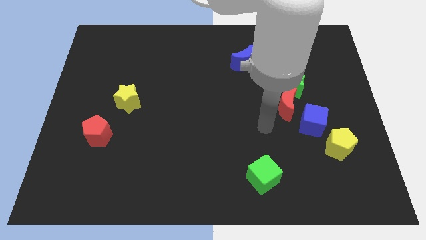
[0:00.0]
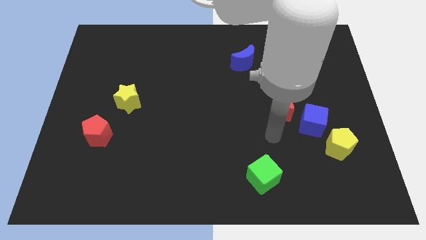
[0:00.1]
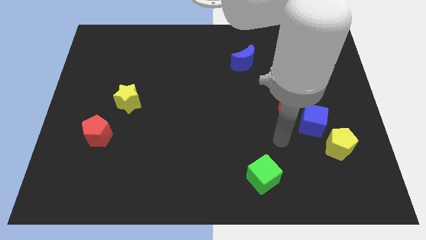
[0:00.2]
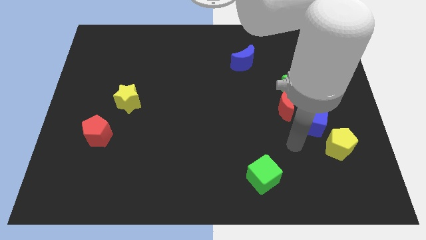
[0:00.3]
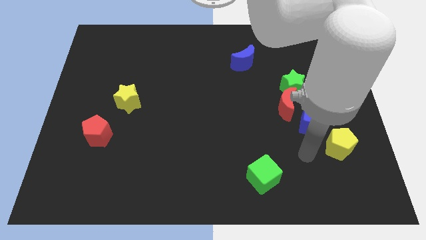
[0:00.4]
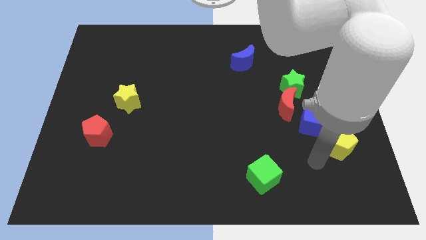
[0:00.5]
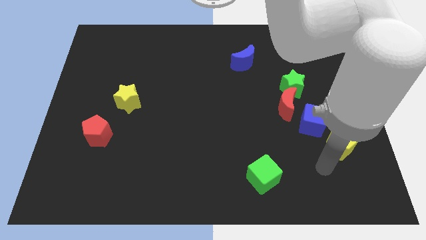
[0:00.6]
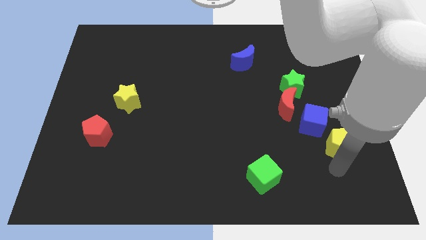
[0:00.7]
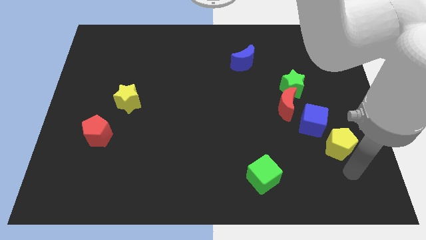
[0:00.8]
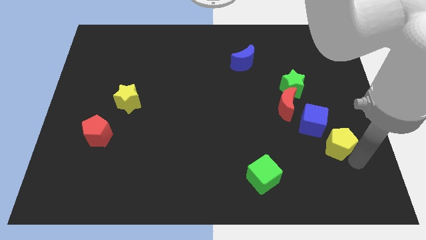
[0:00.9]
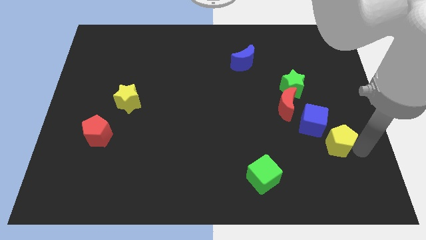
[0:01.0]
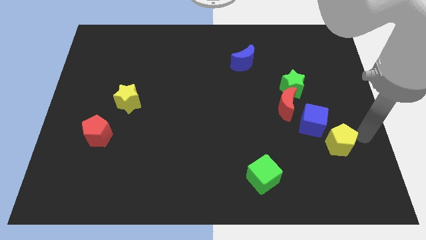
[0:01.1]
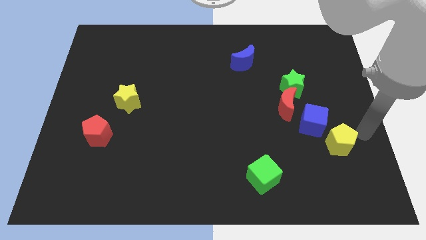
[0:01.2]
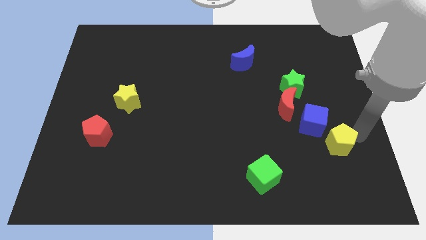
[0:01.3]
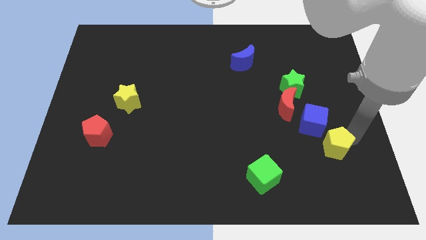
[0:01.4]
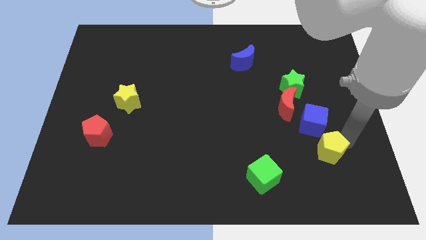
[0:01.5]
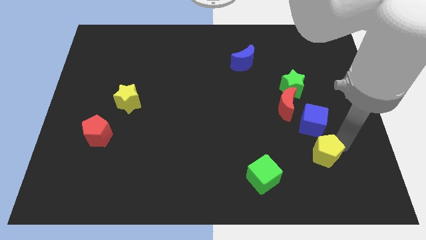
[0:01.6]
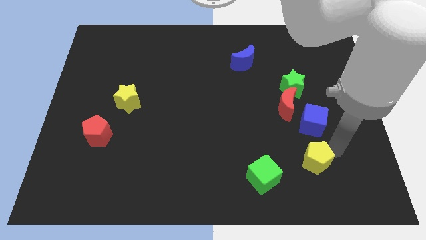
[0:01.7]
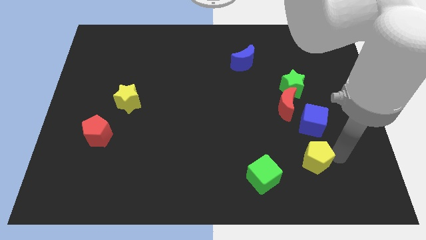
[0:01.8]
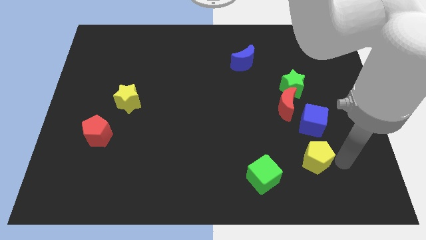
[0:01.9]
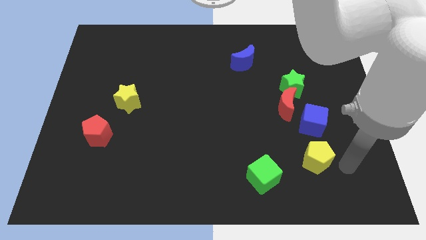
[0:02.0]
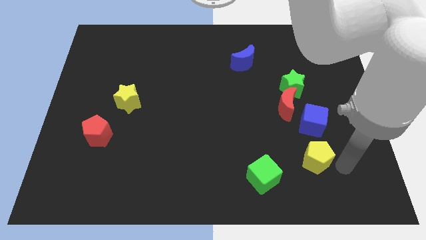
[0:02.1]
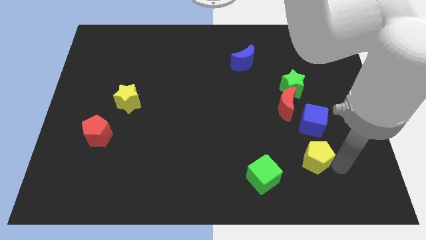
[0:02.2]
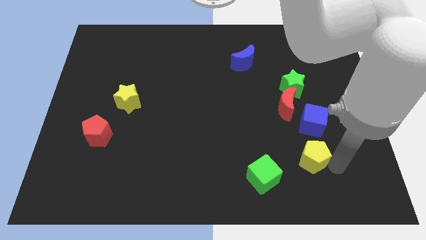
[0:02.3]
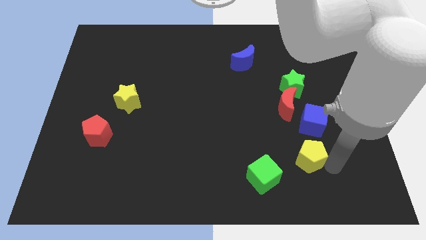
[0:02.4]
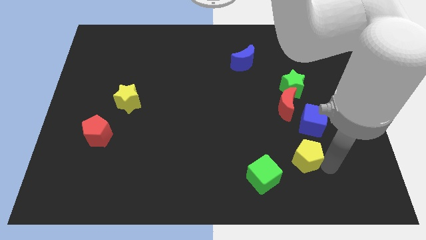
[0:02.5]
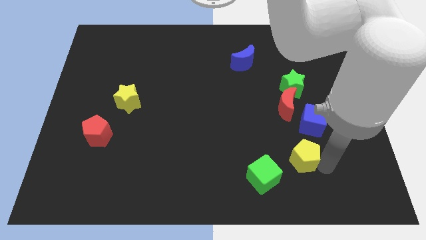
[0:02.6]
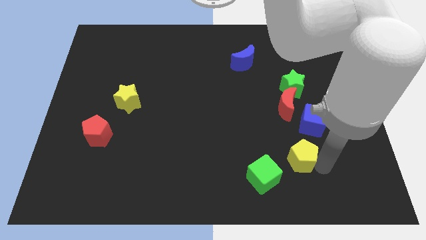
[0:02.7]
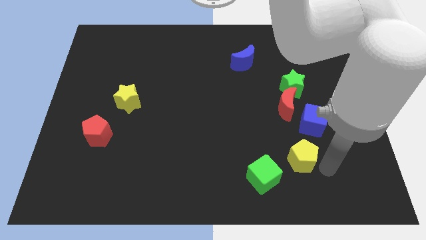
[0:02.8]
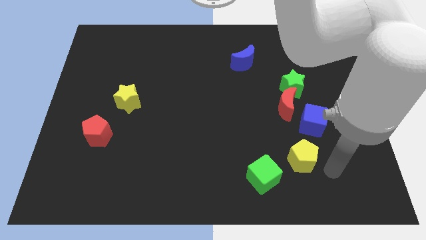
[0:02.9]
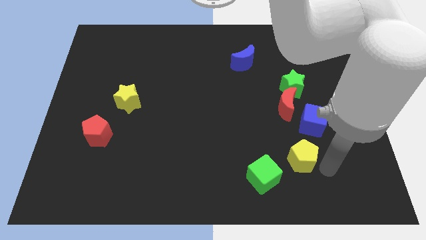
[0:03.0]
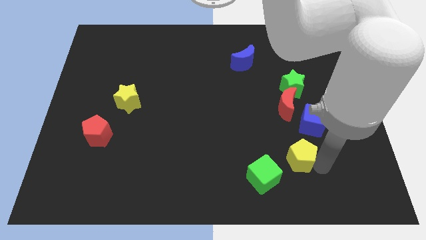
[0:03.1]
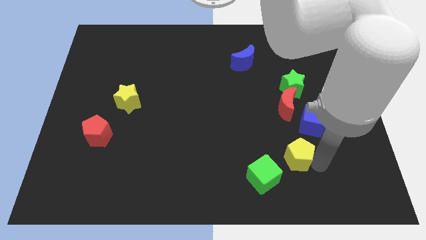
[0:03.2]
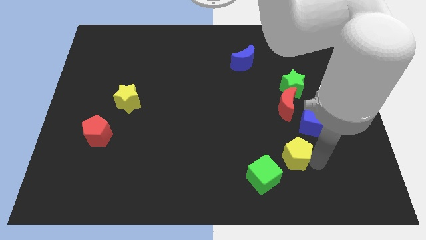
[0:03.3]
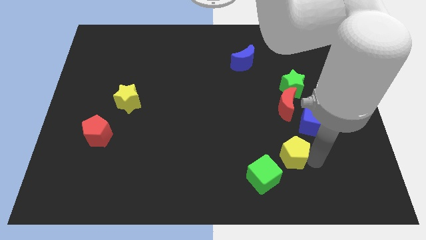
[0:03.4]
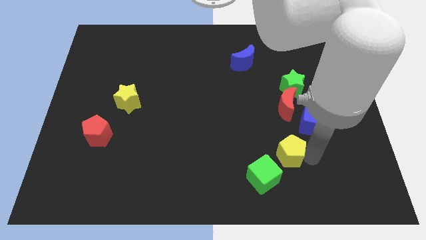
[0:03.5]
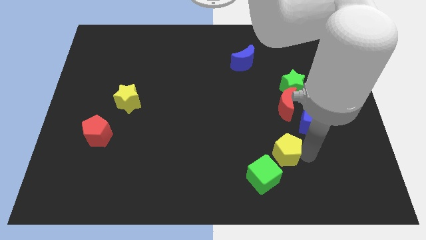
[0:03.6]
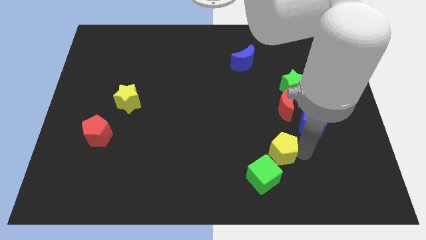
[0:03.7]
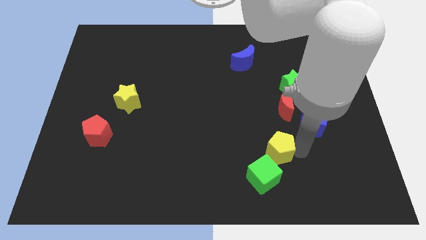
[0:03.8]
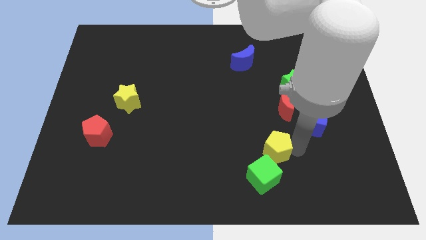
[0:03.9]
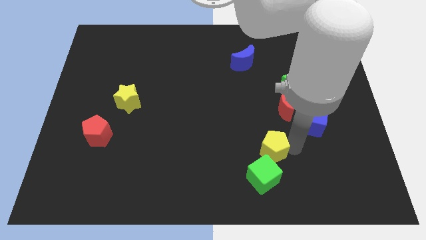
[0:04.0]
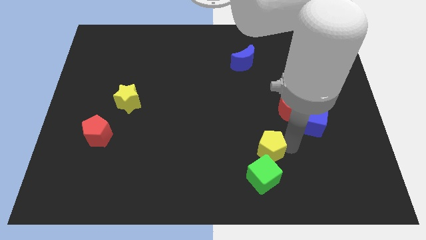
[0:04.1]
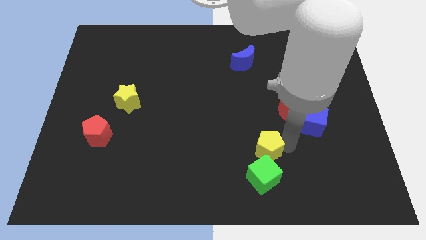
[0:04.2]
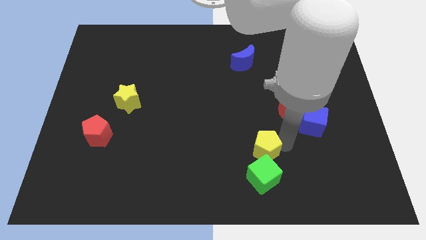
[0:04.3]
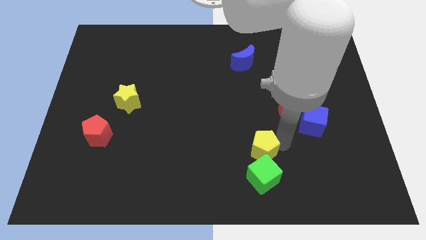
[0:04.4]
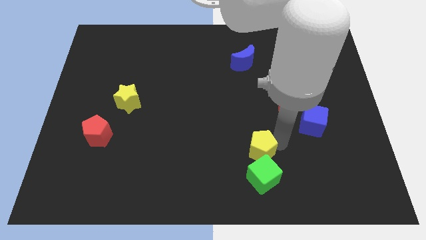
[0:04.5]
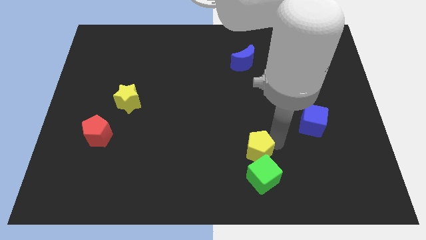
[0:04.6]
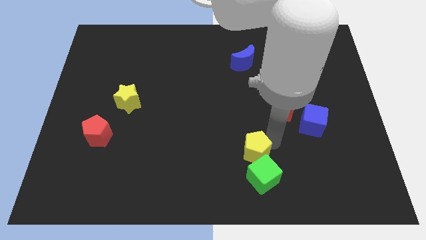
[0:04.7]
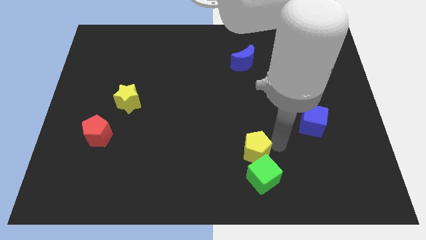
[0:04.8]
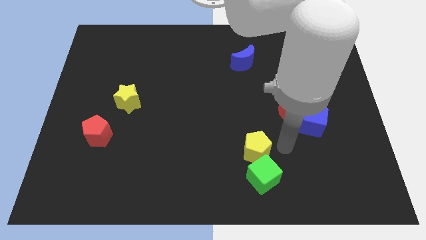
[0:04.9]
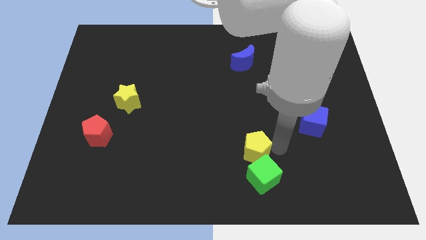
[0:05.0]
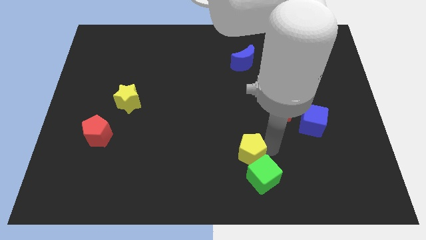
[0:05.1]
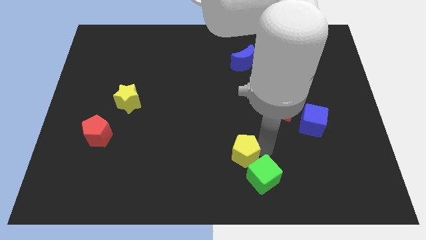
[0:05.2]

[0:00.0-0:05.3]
slide the yellow pentagon left

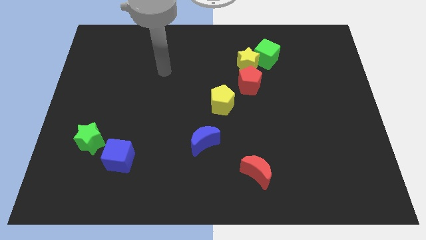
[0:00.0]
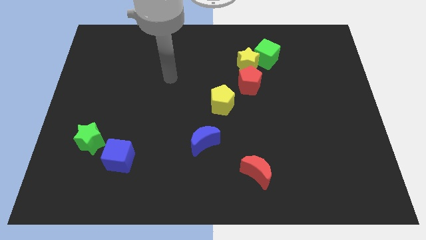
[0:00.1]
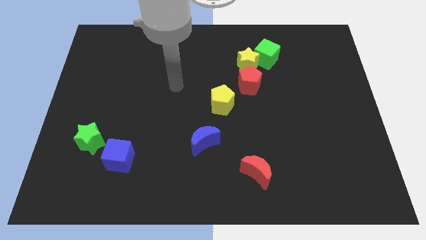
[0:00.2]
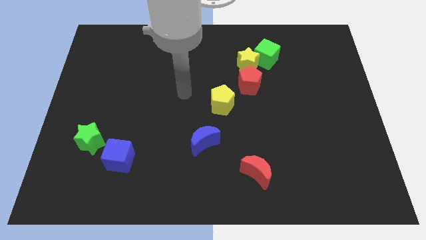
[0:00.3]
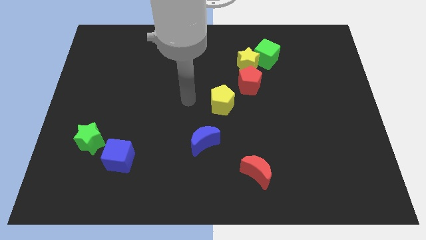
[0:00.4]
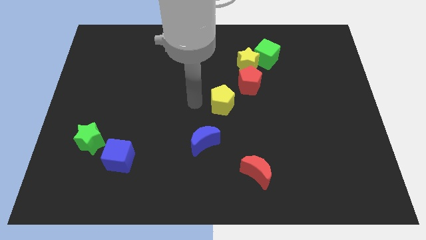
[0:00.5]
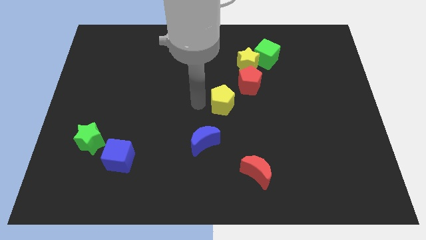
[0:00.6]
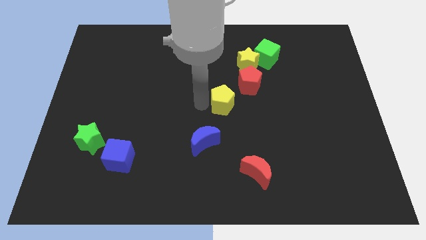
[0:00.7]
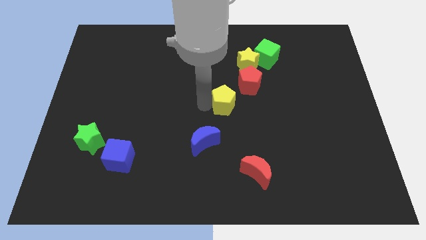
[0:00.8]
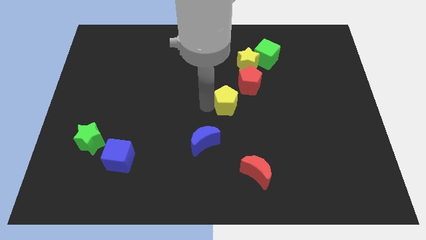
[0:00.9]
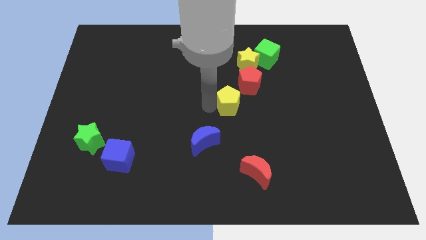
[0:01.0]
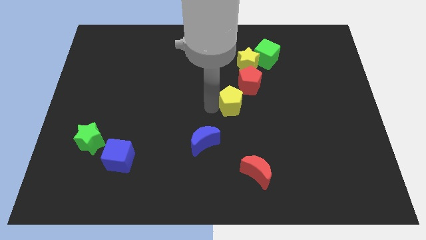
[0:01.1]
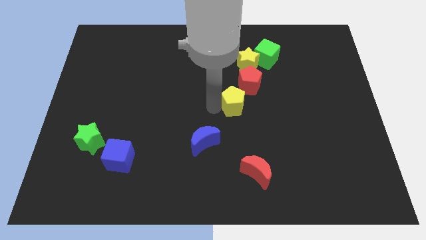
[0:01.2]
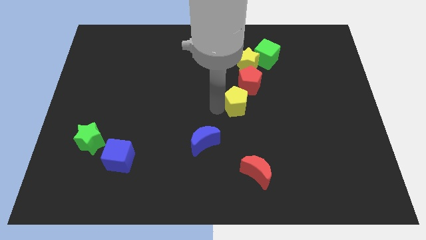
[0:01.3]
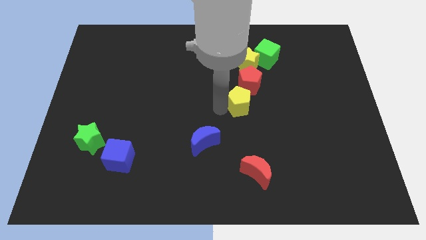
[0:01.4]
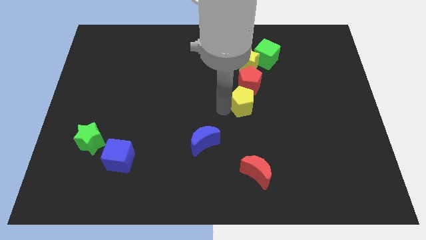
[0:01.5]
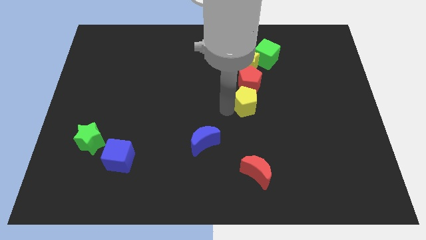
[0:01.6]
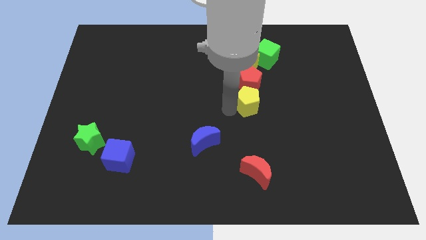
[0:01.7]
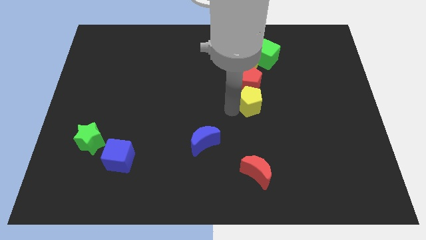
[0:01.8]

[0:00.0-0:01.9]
push the yellow pentagon to the right a little

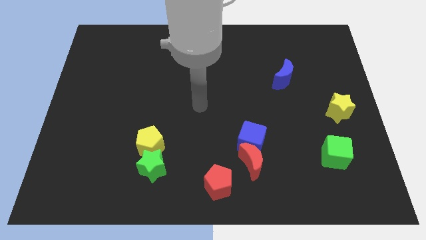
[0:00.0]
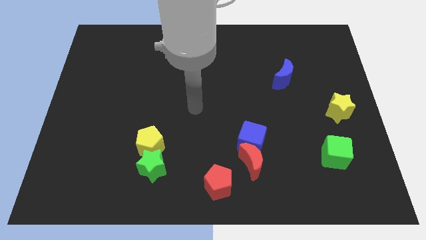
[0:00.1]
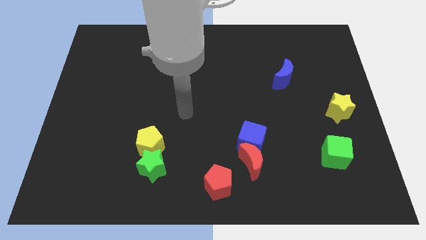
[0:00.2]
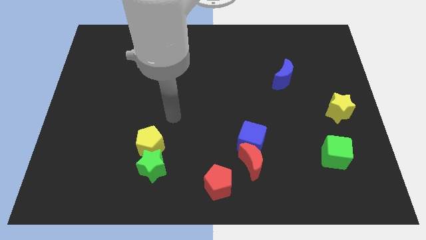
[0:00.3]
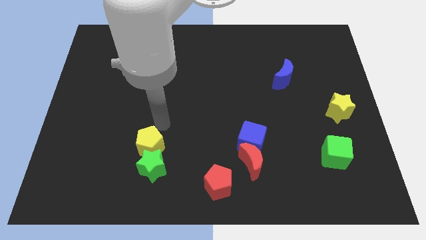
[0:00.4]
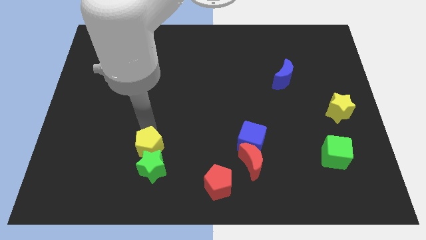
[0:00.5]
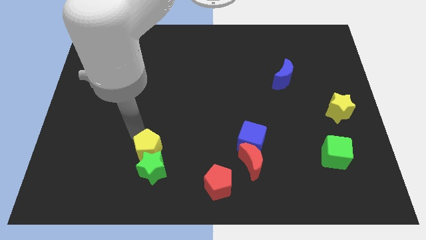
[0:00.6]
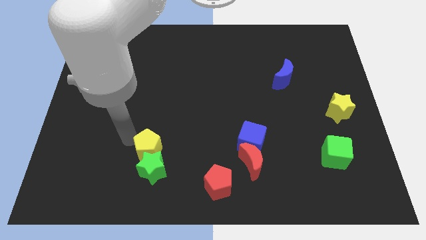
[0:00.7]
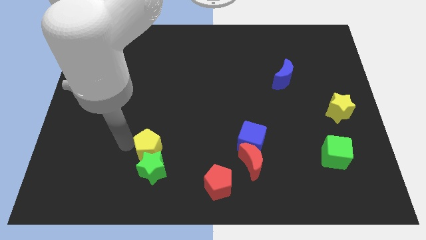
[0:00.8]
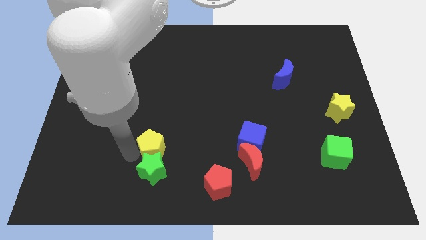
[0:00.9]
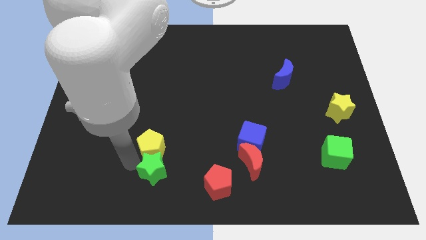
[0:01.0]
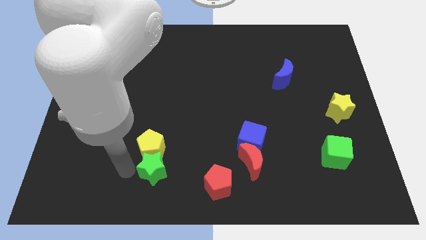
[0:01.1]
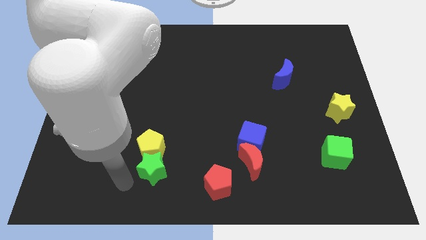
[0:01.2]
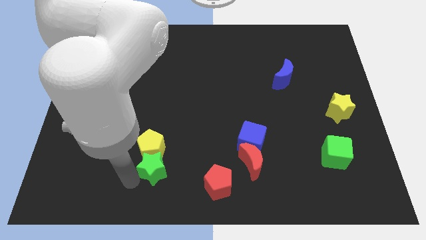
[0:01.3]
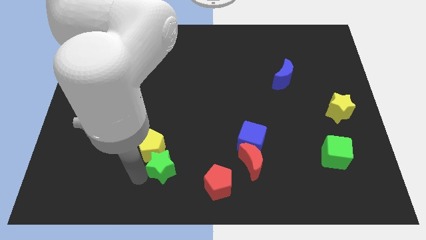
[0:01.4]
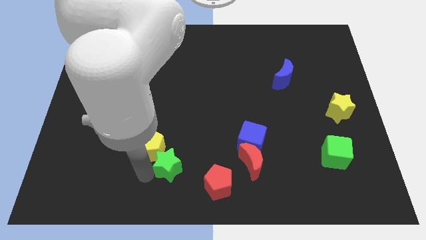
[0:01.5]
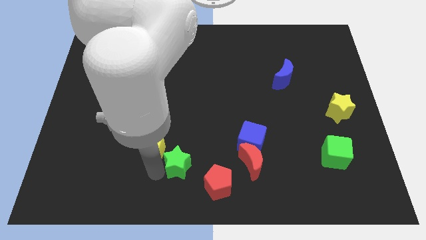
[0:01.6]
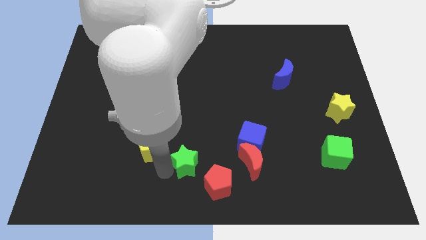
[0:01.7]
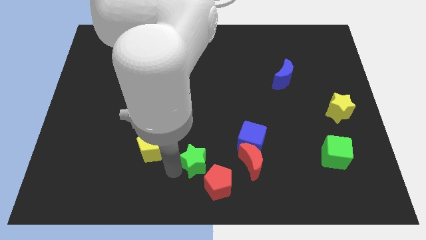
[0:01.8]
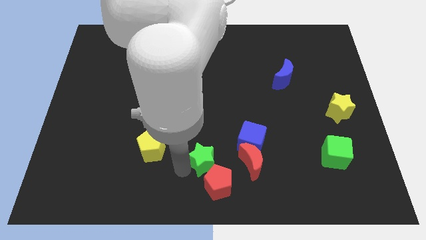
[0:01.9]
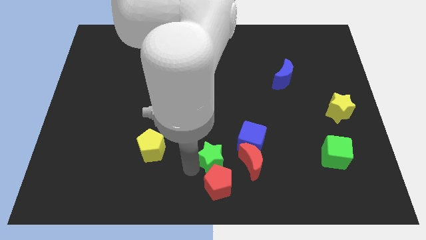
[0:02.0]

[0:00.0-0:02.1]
move the green star a bit diagonally up and to the right
